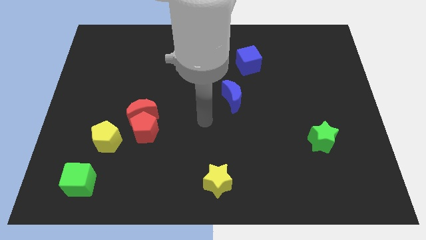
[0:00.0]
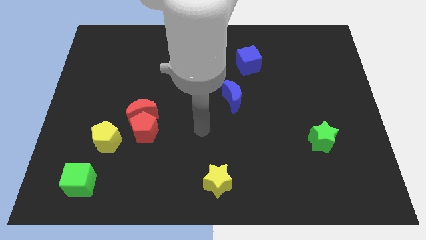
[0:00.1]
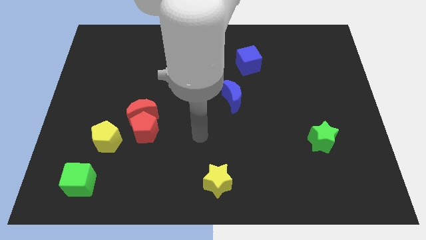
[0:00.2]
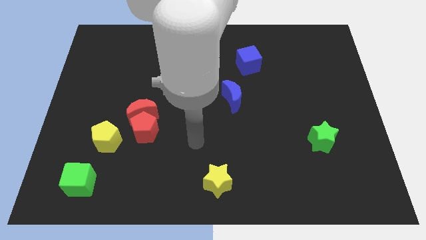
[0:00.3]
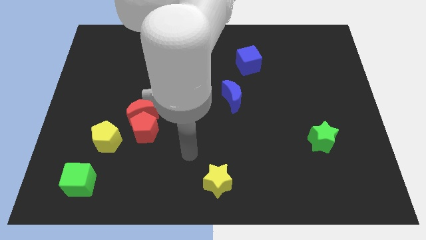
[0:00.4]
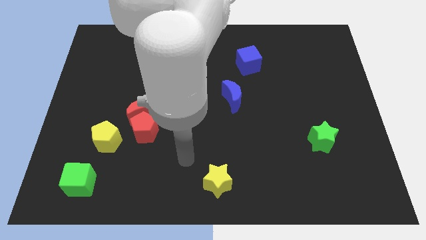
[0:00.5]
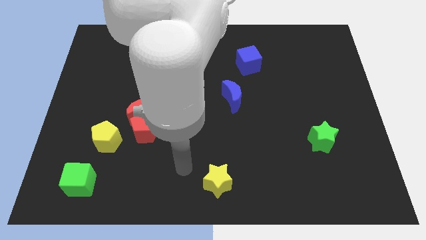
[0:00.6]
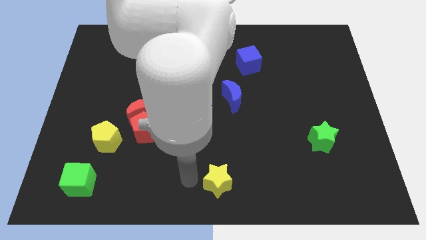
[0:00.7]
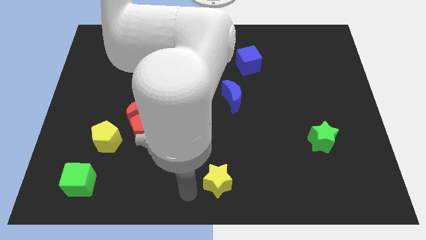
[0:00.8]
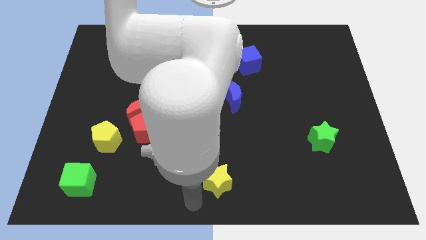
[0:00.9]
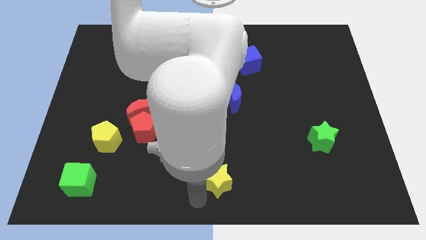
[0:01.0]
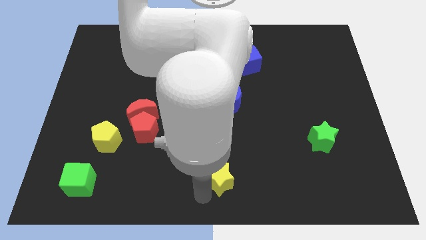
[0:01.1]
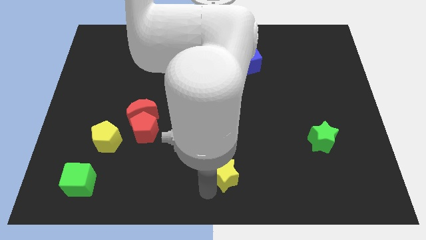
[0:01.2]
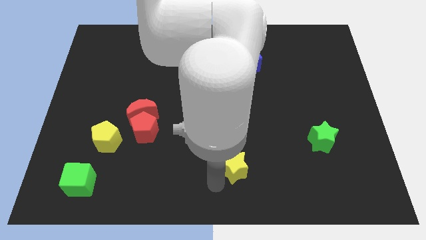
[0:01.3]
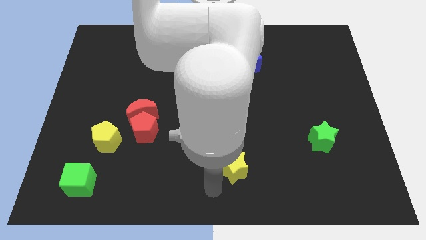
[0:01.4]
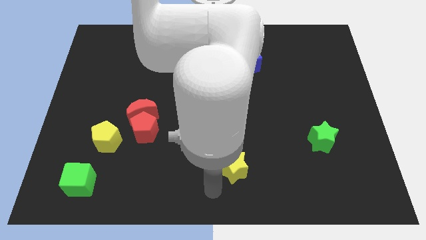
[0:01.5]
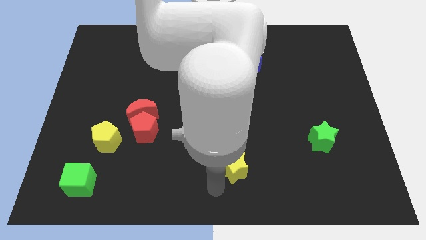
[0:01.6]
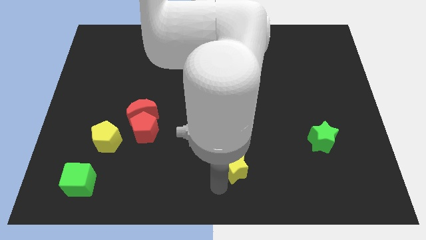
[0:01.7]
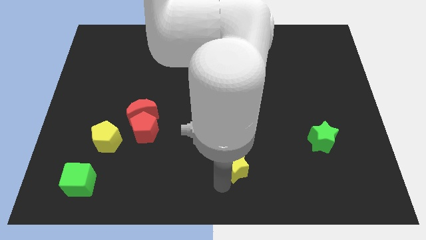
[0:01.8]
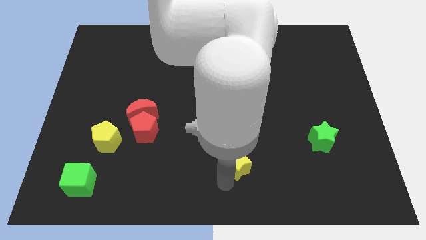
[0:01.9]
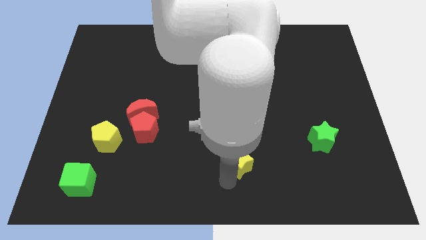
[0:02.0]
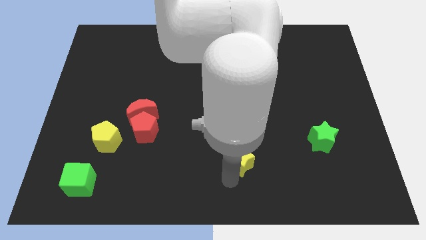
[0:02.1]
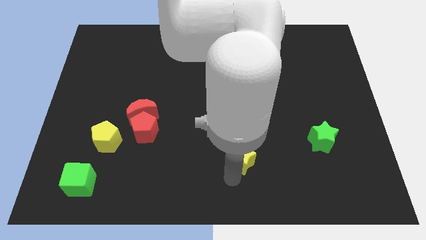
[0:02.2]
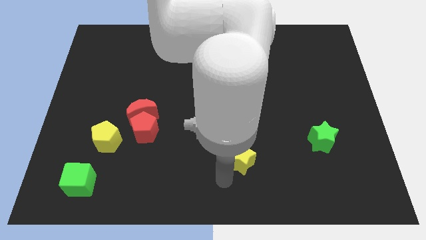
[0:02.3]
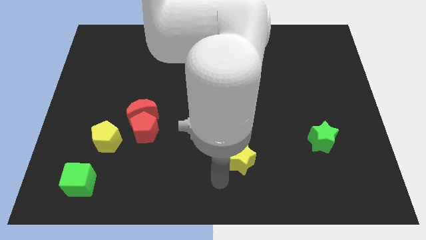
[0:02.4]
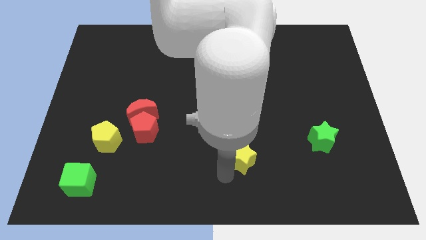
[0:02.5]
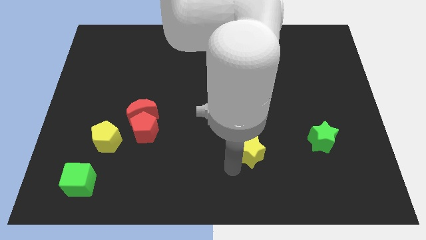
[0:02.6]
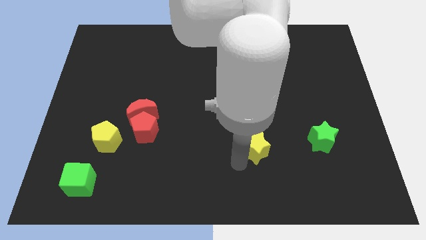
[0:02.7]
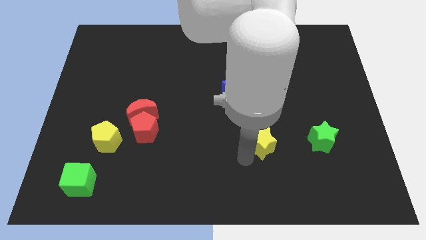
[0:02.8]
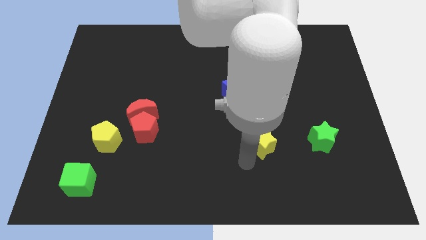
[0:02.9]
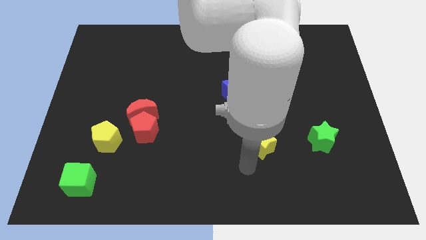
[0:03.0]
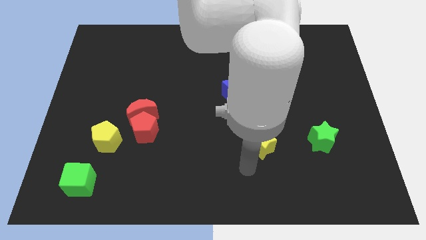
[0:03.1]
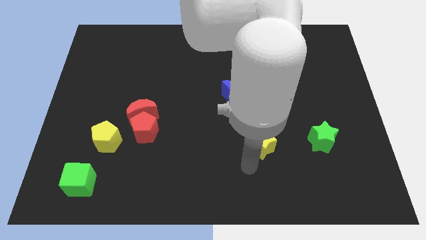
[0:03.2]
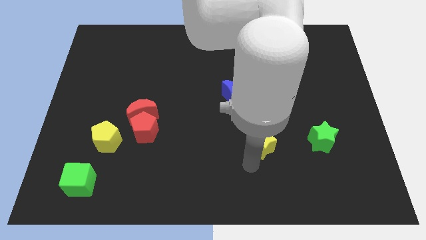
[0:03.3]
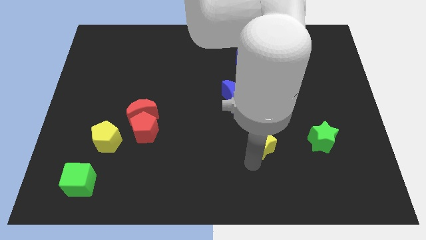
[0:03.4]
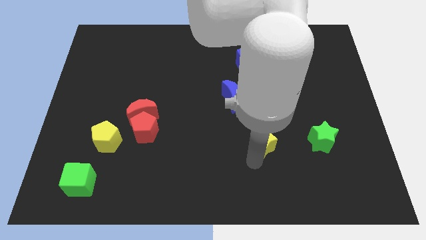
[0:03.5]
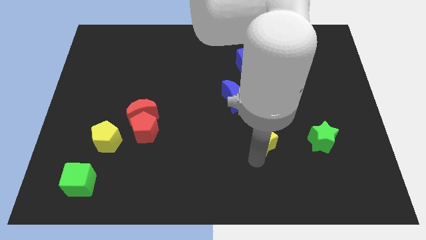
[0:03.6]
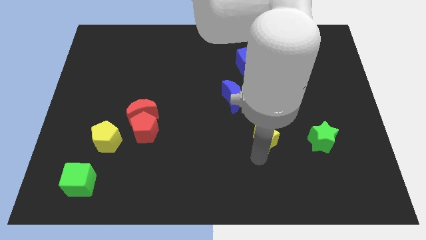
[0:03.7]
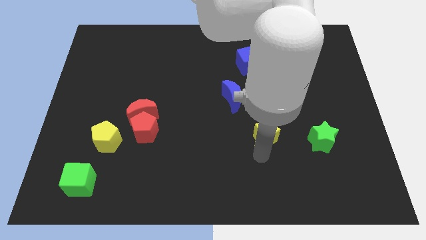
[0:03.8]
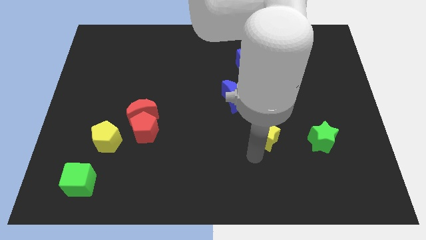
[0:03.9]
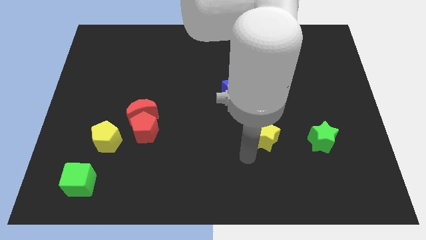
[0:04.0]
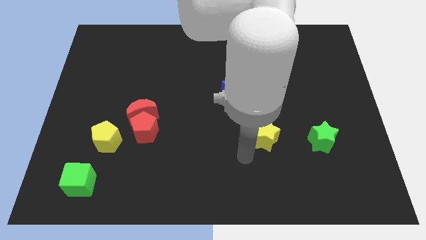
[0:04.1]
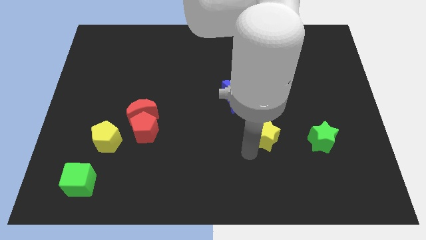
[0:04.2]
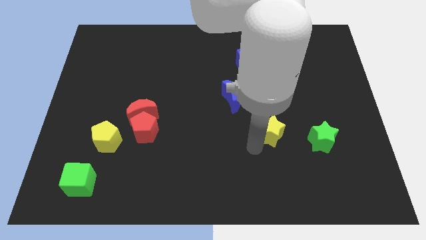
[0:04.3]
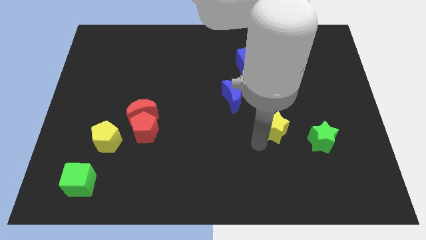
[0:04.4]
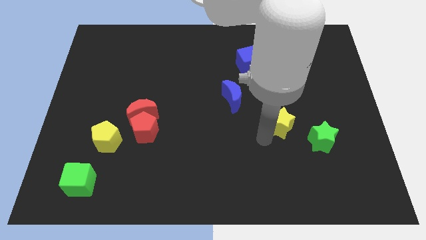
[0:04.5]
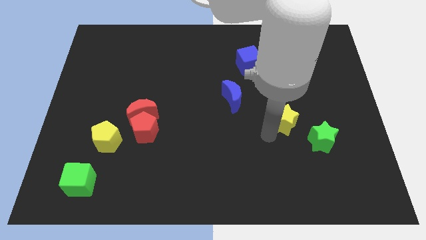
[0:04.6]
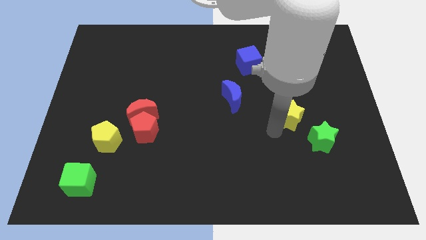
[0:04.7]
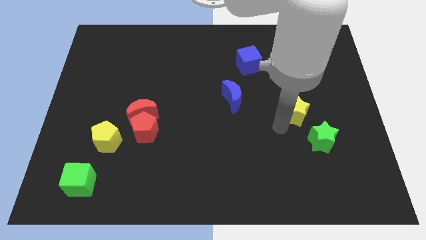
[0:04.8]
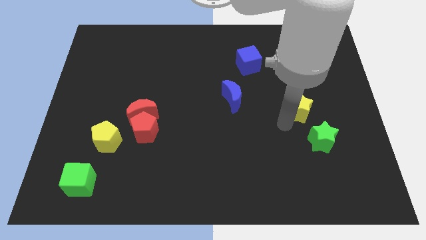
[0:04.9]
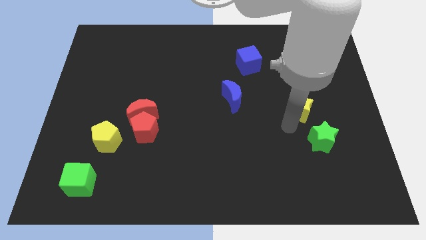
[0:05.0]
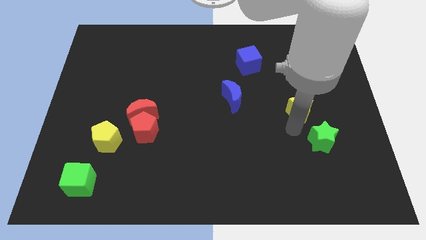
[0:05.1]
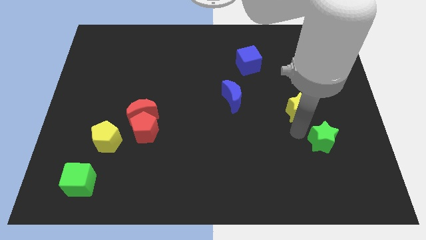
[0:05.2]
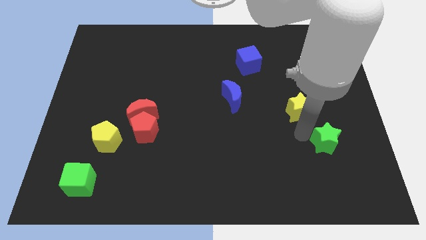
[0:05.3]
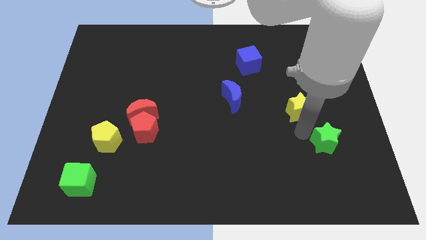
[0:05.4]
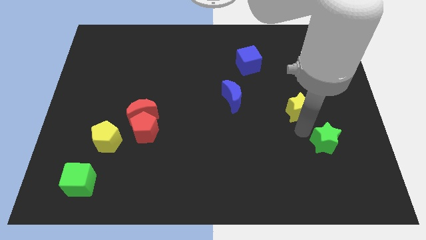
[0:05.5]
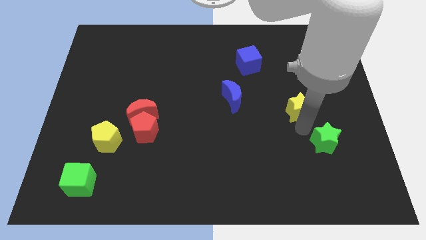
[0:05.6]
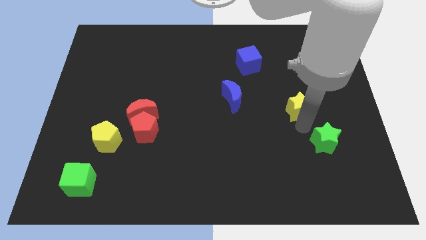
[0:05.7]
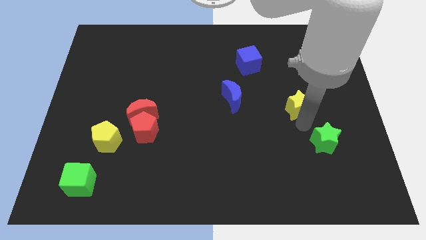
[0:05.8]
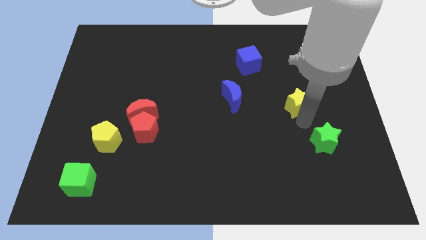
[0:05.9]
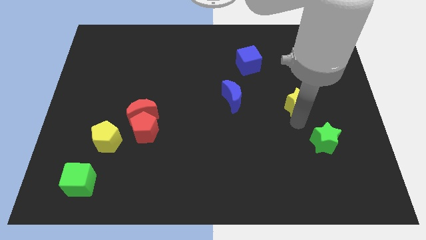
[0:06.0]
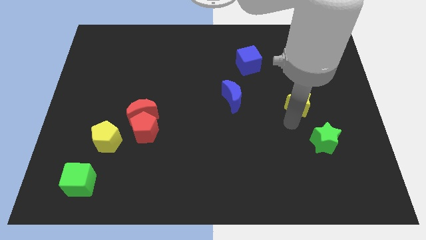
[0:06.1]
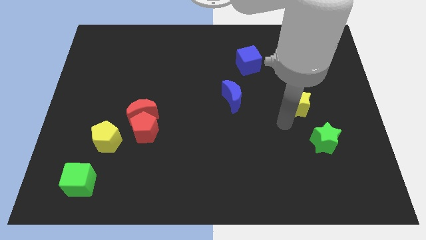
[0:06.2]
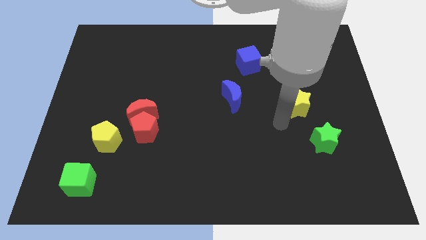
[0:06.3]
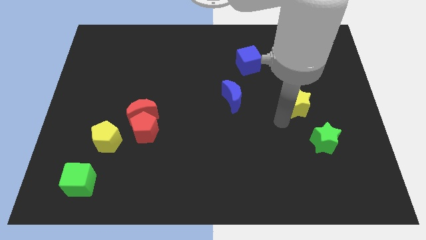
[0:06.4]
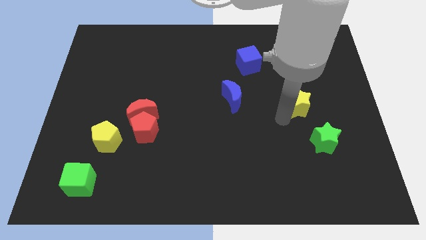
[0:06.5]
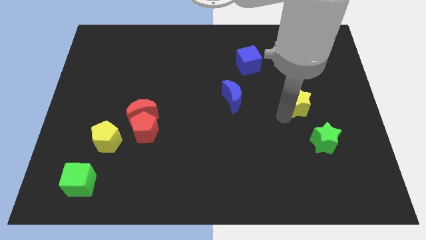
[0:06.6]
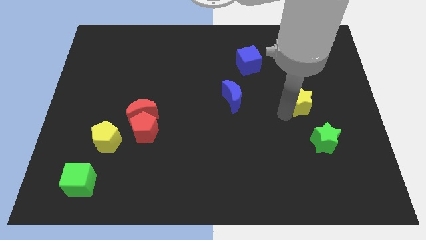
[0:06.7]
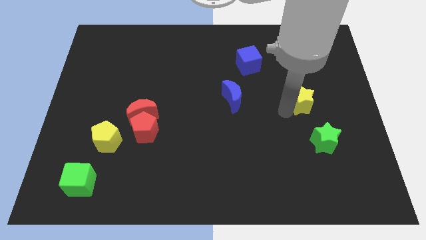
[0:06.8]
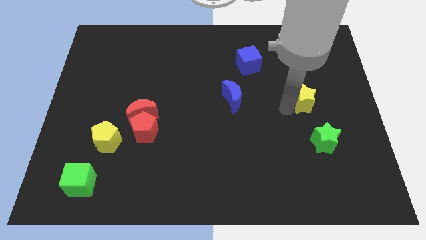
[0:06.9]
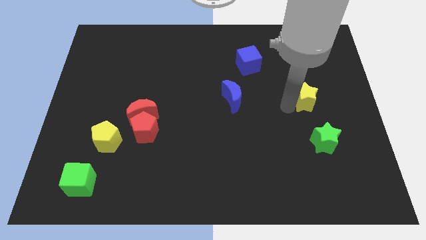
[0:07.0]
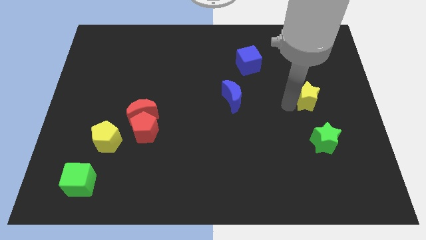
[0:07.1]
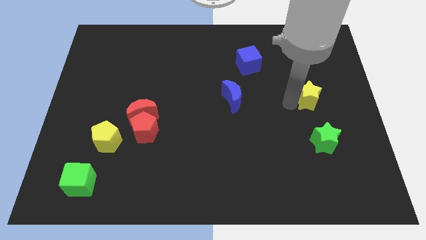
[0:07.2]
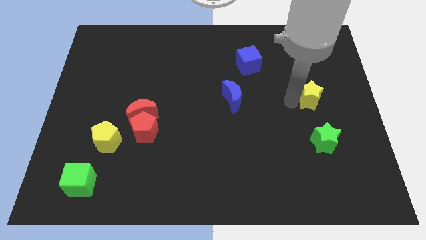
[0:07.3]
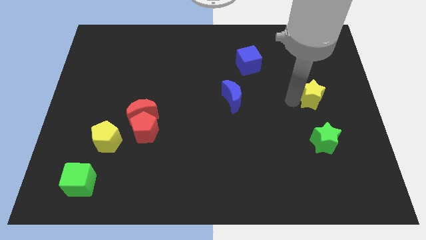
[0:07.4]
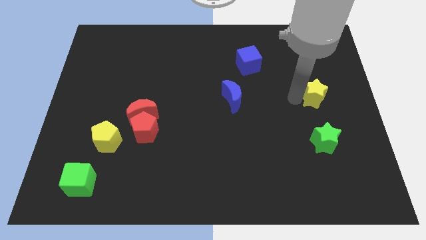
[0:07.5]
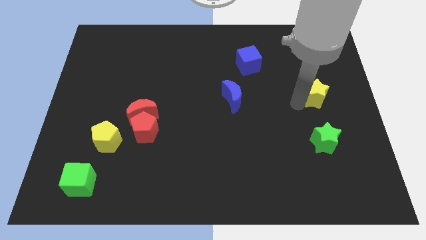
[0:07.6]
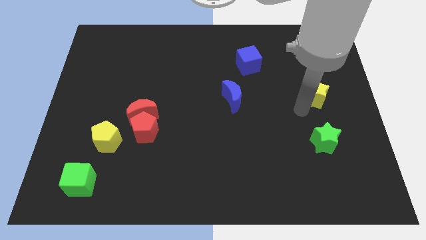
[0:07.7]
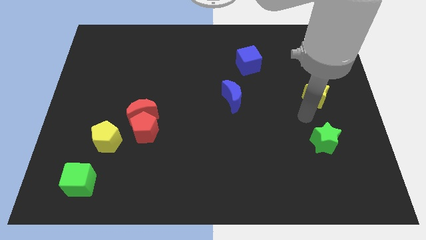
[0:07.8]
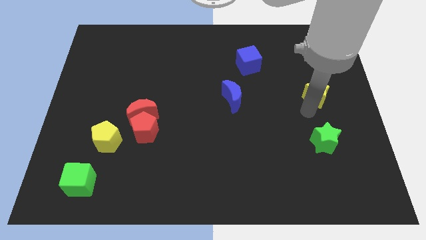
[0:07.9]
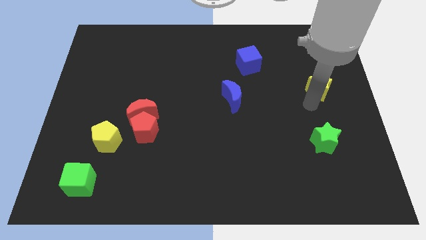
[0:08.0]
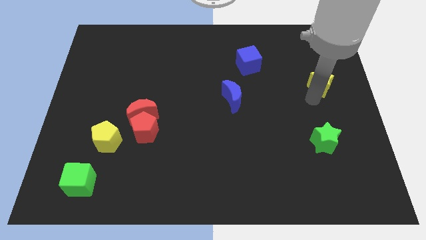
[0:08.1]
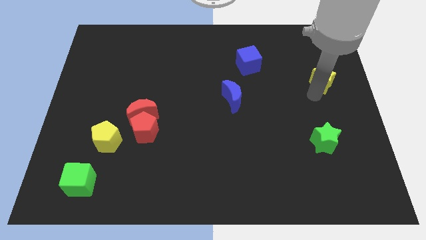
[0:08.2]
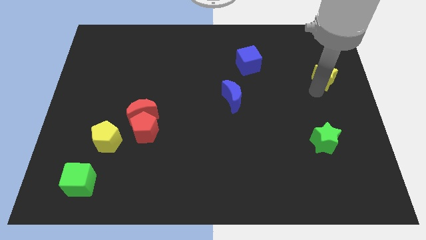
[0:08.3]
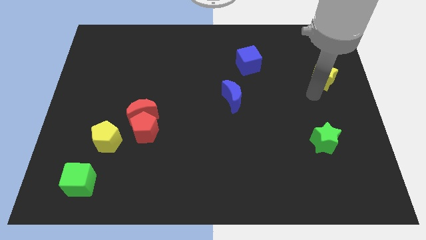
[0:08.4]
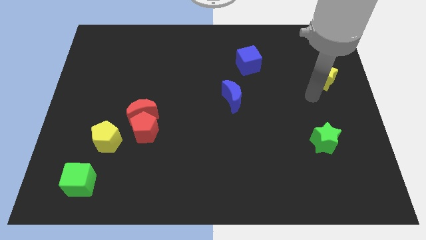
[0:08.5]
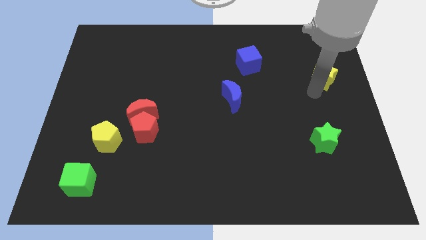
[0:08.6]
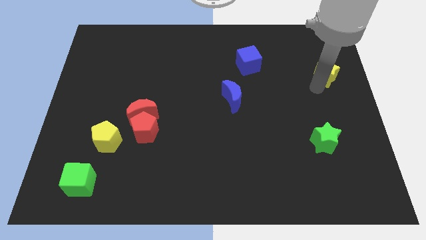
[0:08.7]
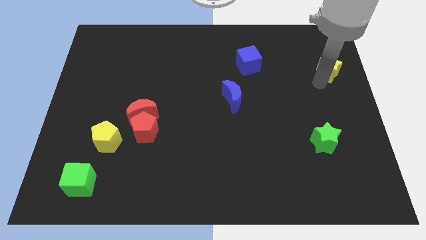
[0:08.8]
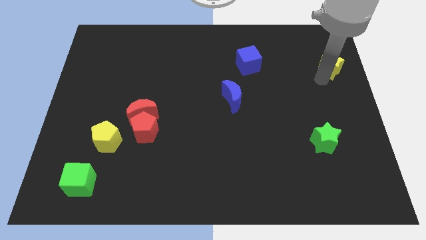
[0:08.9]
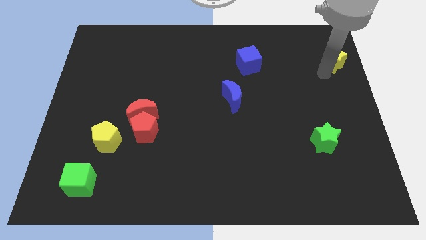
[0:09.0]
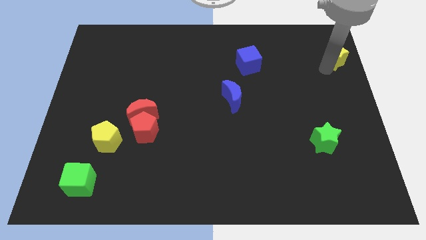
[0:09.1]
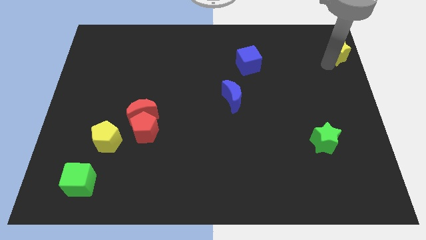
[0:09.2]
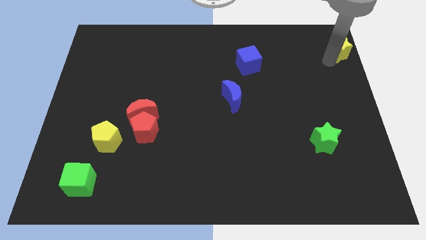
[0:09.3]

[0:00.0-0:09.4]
put the yellow star to the upper right corner
